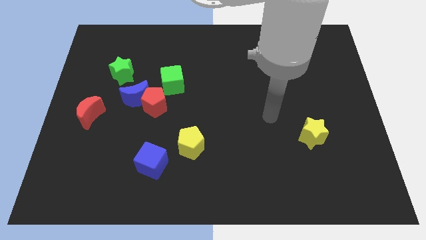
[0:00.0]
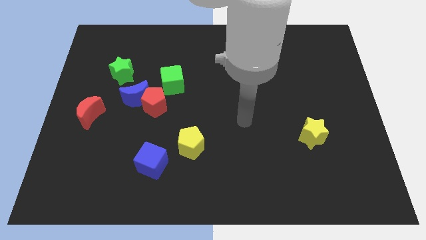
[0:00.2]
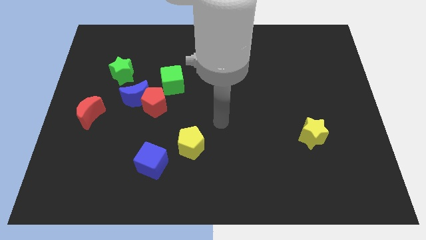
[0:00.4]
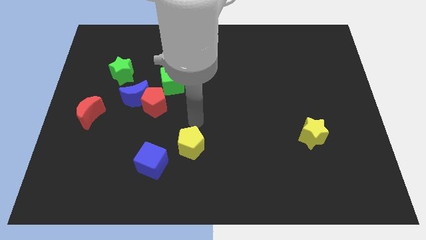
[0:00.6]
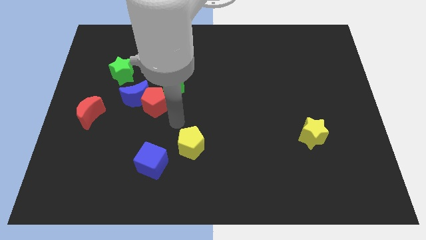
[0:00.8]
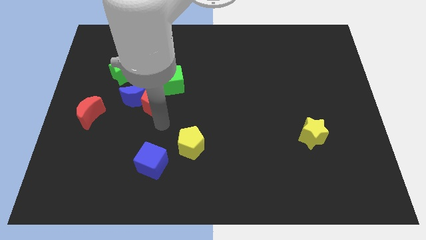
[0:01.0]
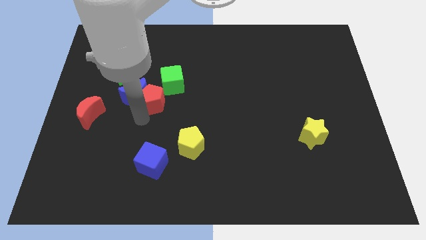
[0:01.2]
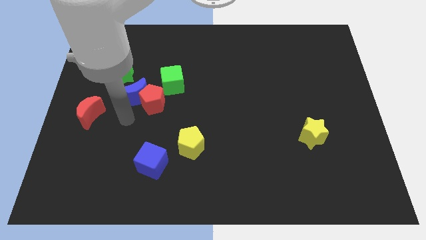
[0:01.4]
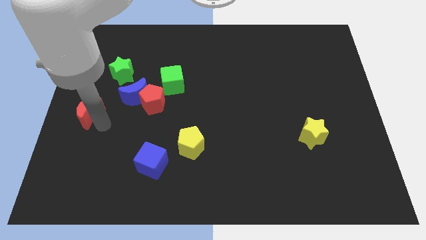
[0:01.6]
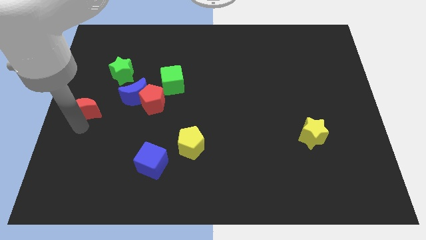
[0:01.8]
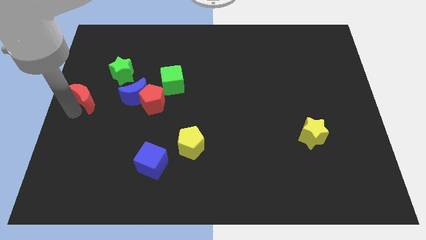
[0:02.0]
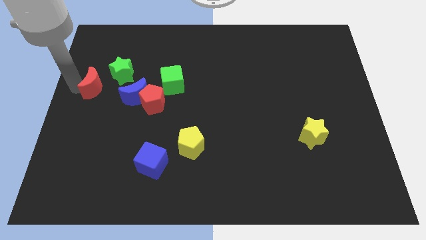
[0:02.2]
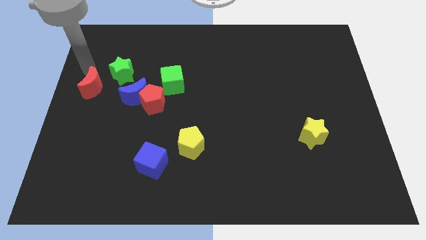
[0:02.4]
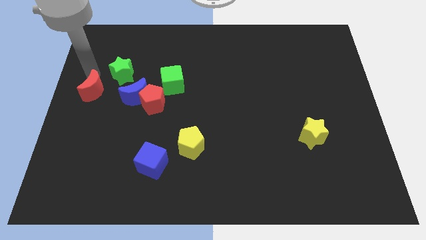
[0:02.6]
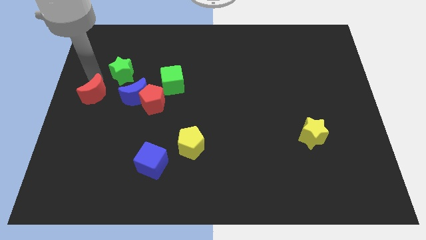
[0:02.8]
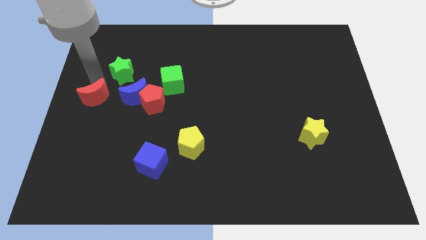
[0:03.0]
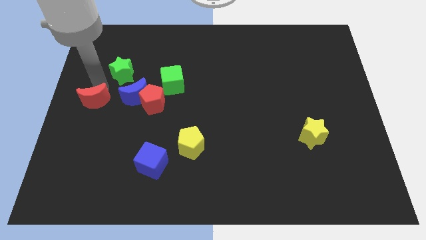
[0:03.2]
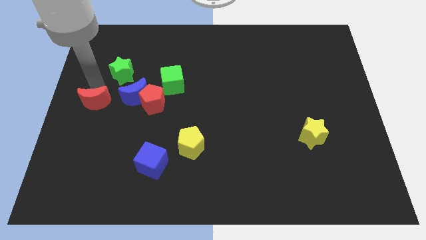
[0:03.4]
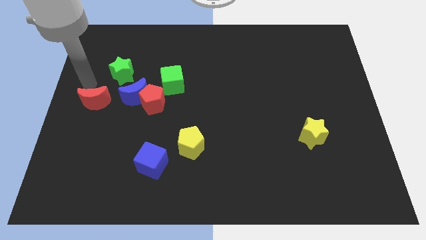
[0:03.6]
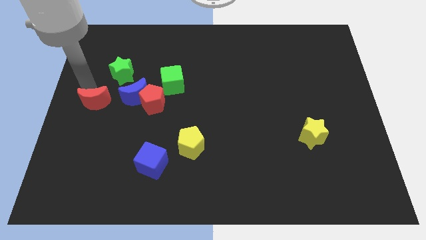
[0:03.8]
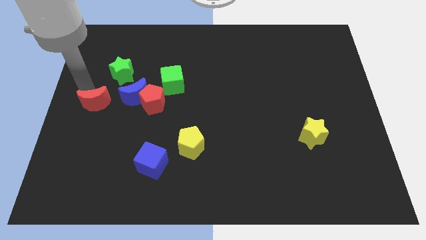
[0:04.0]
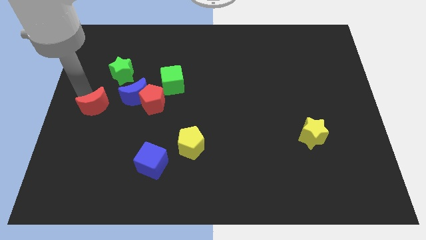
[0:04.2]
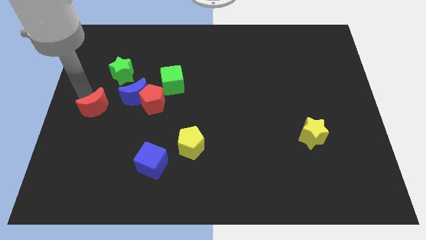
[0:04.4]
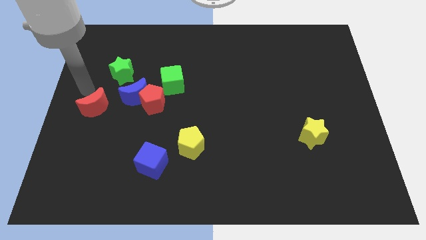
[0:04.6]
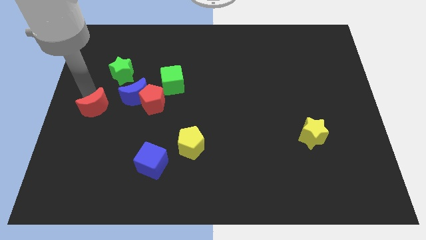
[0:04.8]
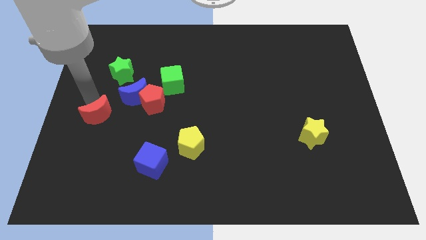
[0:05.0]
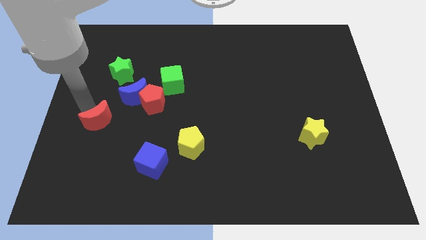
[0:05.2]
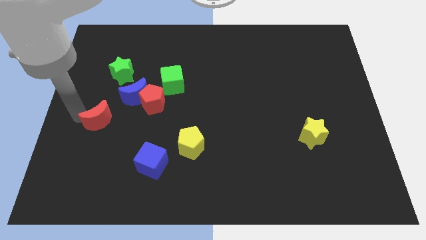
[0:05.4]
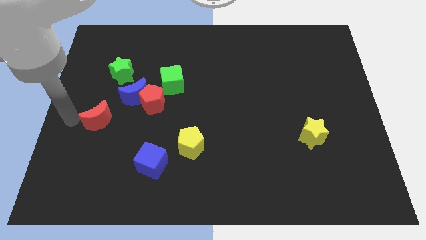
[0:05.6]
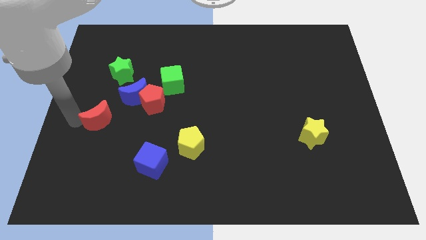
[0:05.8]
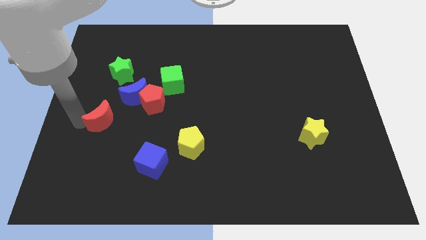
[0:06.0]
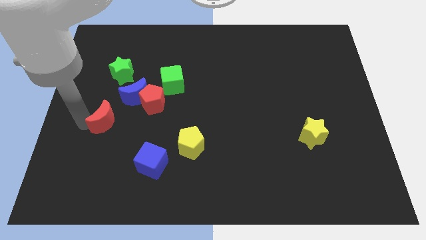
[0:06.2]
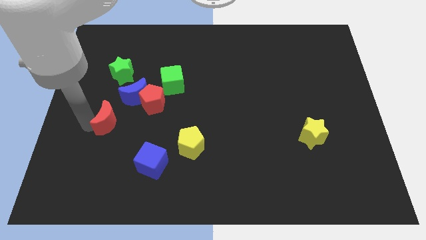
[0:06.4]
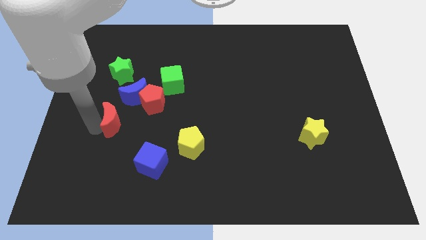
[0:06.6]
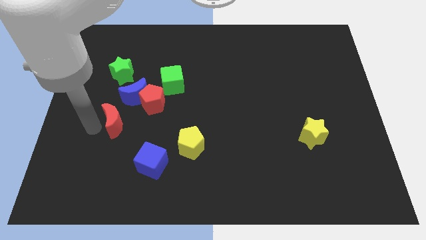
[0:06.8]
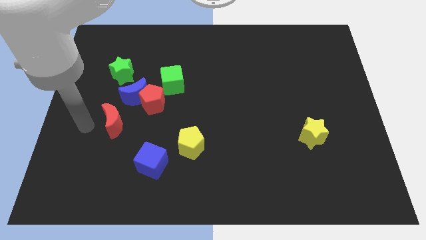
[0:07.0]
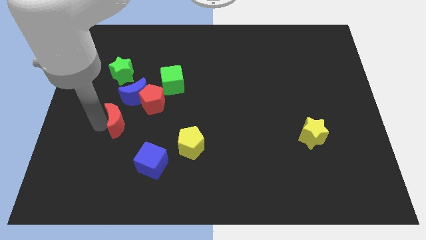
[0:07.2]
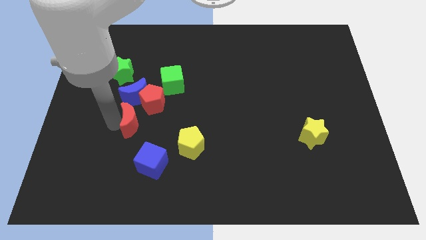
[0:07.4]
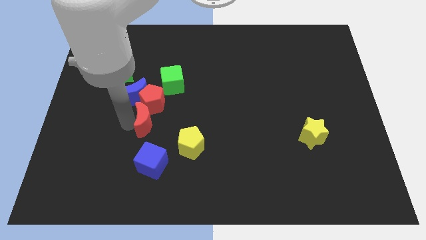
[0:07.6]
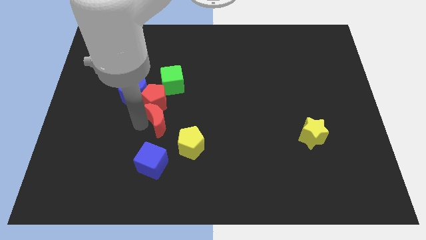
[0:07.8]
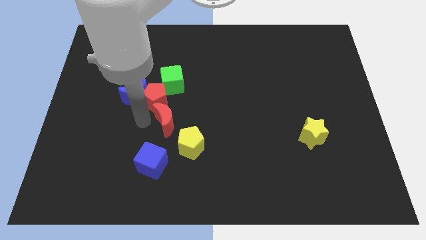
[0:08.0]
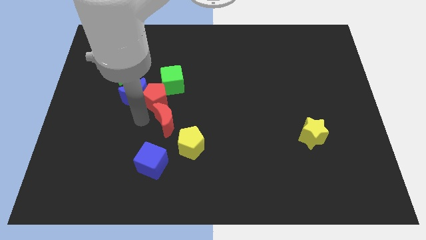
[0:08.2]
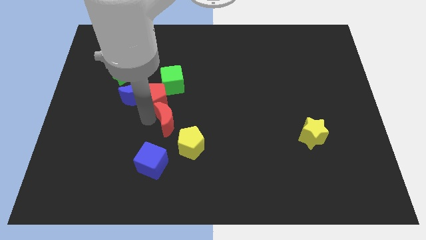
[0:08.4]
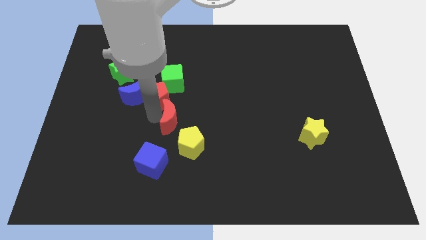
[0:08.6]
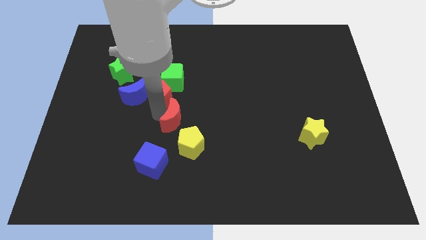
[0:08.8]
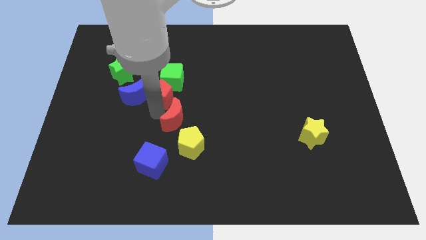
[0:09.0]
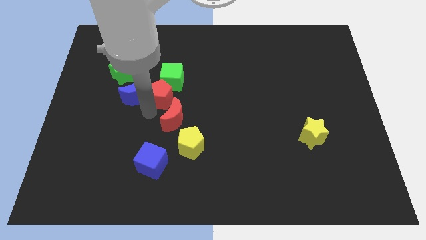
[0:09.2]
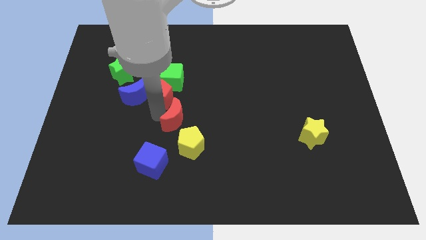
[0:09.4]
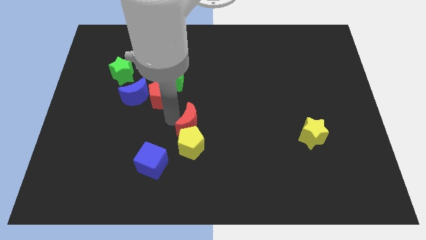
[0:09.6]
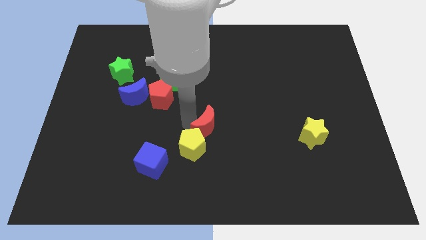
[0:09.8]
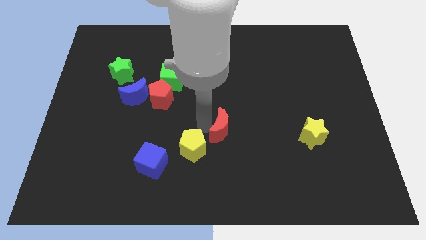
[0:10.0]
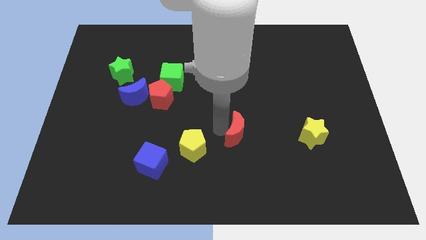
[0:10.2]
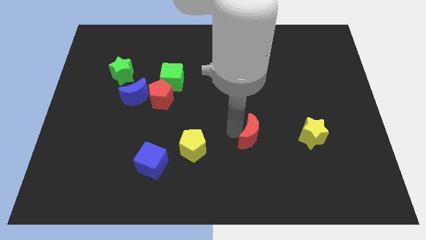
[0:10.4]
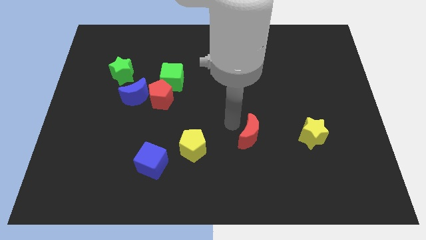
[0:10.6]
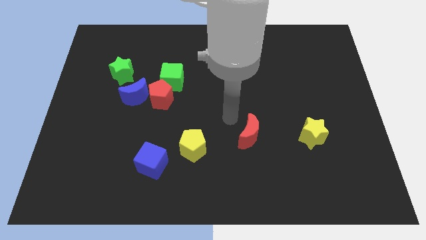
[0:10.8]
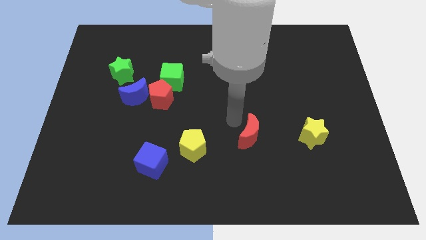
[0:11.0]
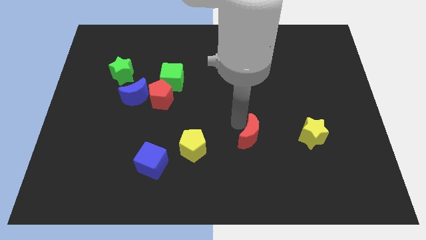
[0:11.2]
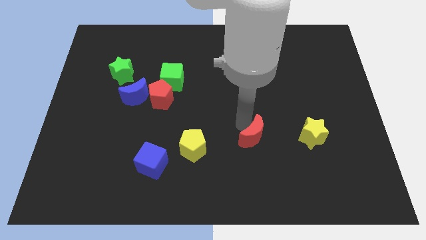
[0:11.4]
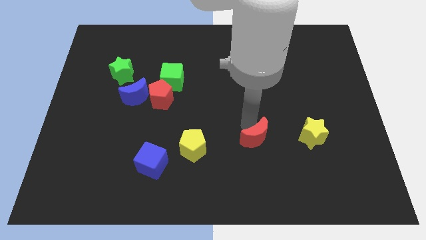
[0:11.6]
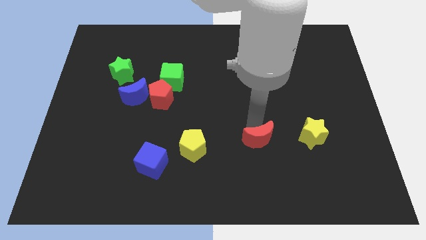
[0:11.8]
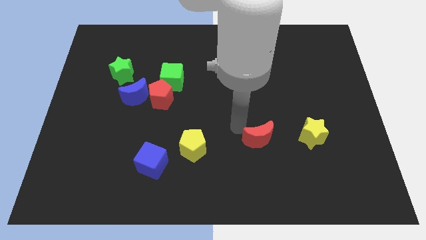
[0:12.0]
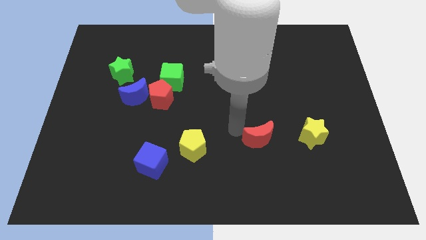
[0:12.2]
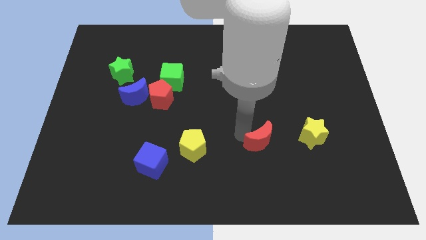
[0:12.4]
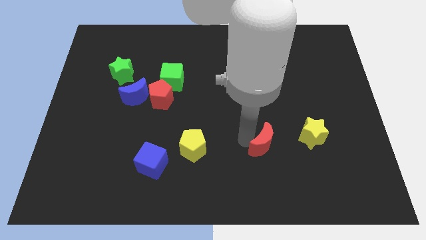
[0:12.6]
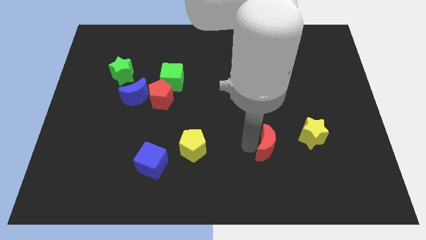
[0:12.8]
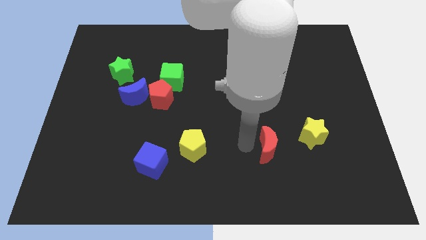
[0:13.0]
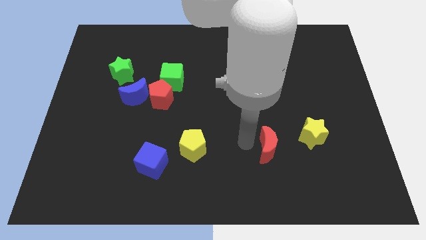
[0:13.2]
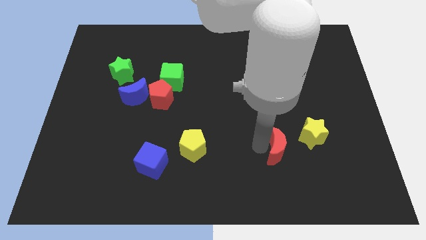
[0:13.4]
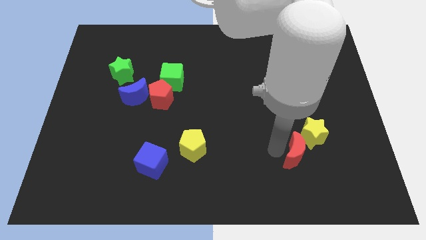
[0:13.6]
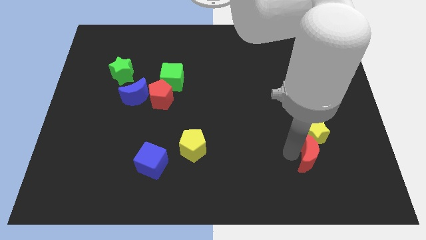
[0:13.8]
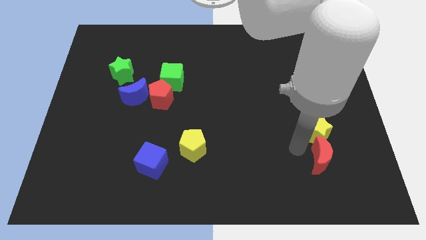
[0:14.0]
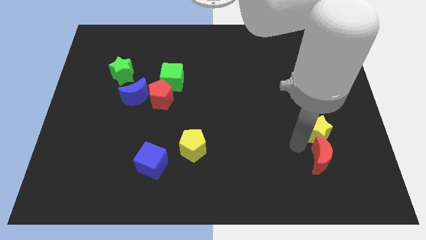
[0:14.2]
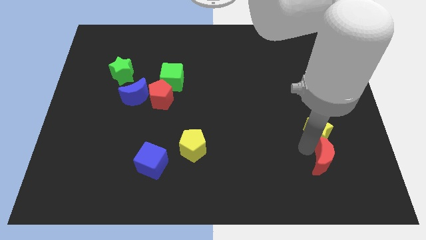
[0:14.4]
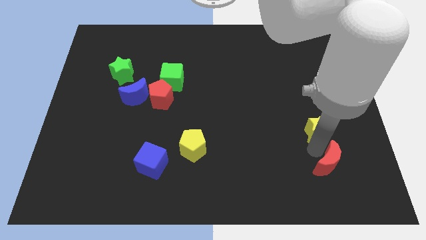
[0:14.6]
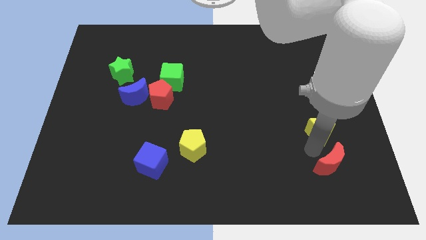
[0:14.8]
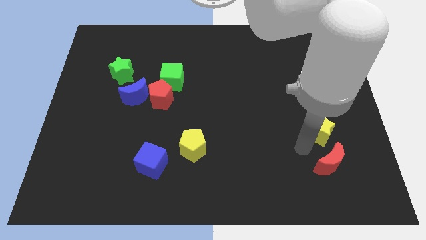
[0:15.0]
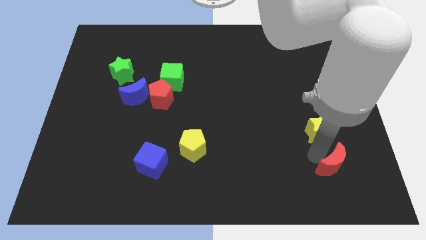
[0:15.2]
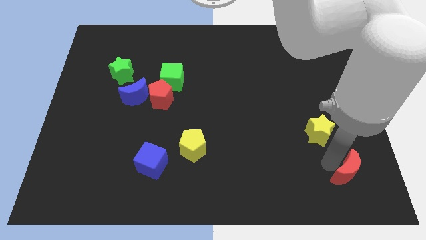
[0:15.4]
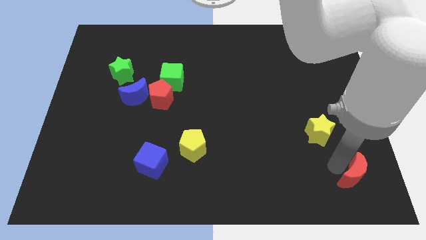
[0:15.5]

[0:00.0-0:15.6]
push the red moon to the lower right corner
